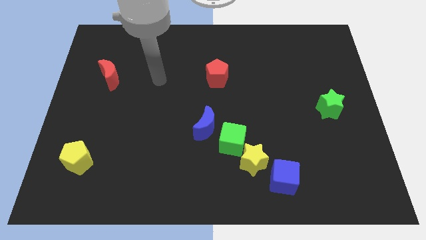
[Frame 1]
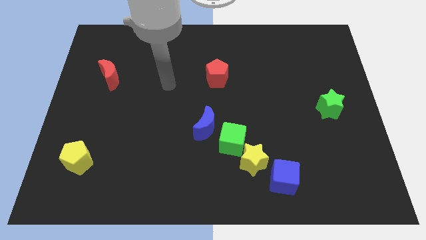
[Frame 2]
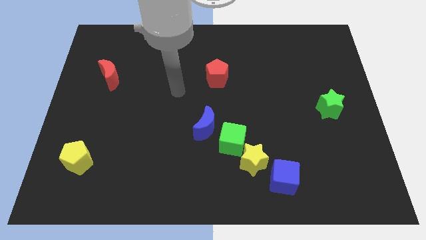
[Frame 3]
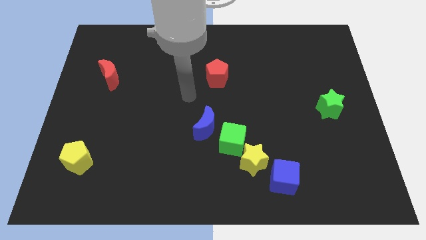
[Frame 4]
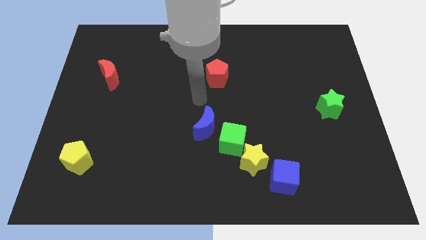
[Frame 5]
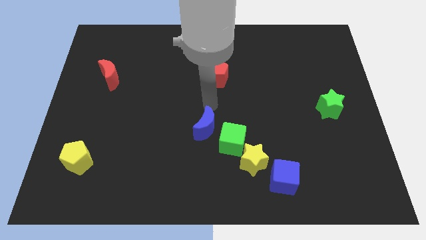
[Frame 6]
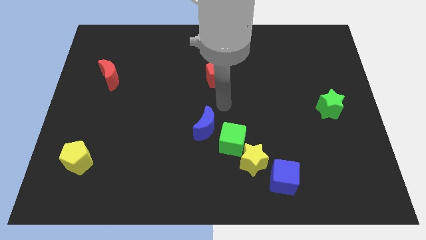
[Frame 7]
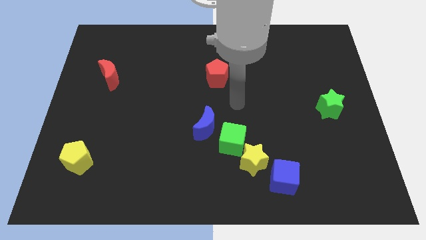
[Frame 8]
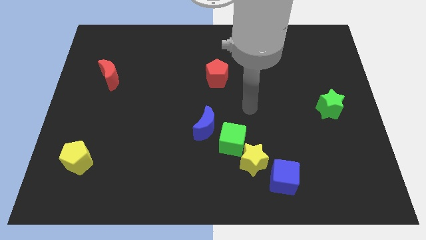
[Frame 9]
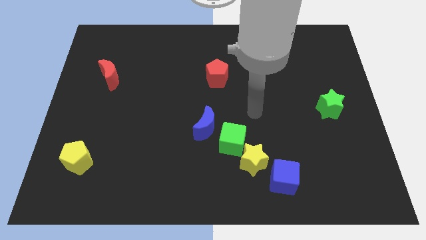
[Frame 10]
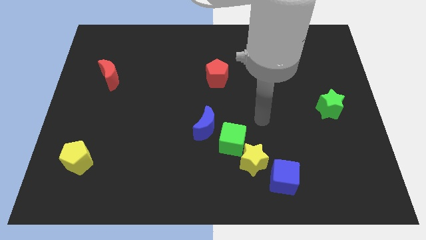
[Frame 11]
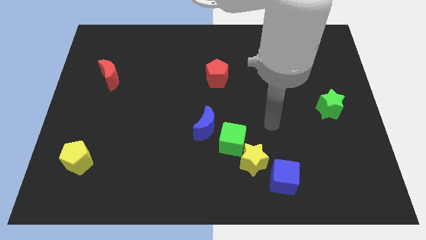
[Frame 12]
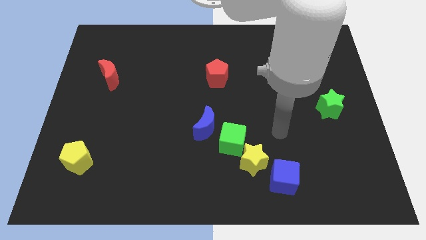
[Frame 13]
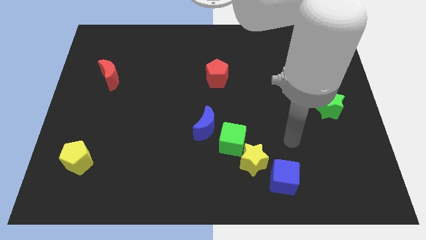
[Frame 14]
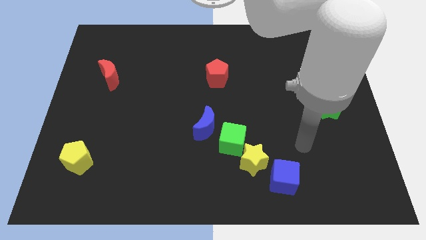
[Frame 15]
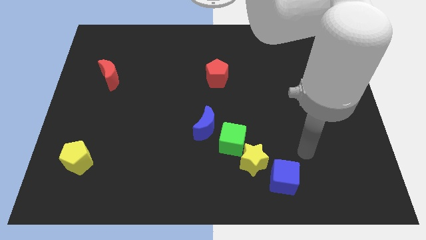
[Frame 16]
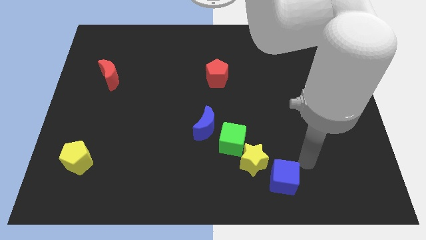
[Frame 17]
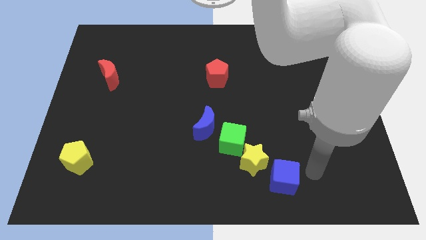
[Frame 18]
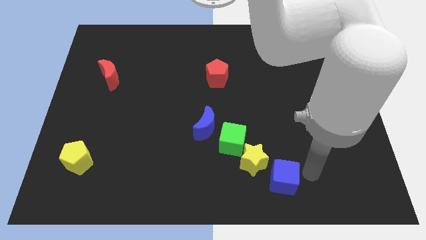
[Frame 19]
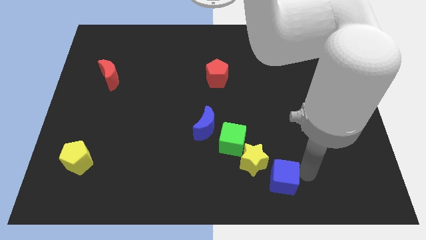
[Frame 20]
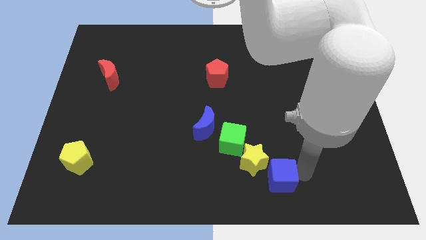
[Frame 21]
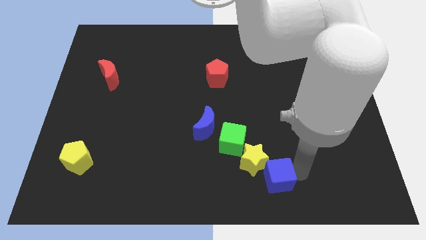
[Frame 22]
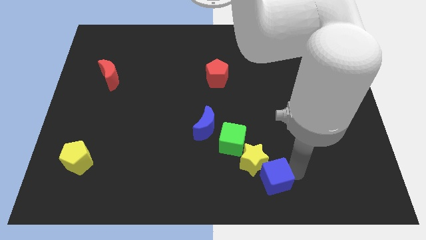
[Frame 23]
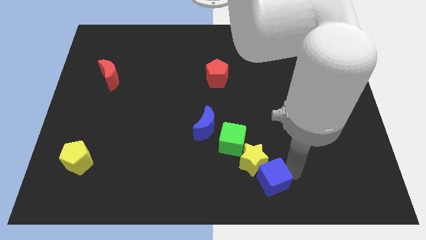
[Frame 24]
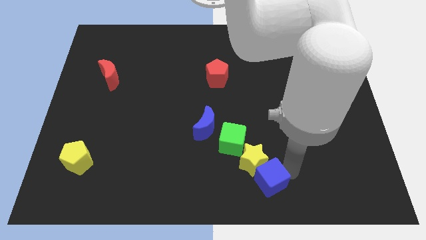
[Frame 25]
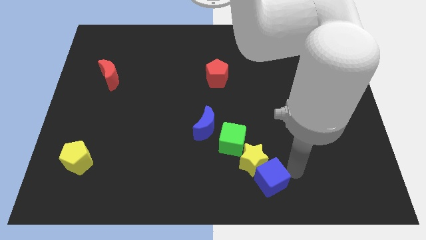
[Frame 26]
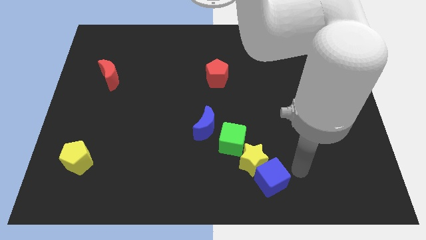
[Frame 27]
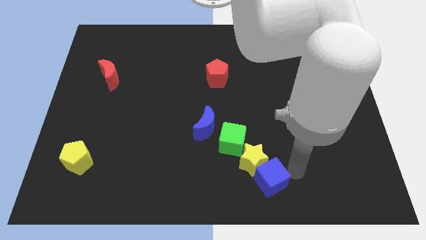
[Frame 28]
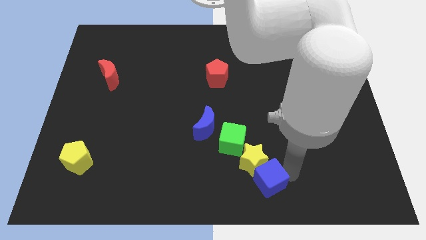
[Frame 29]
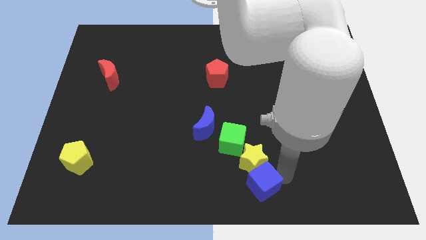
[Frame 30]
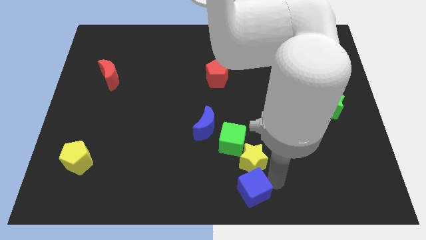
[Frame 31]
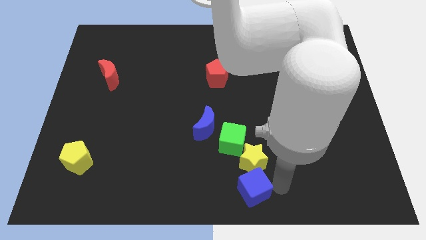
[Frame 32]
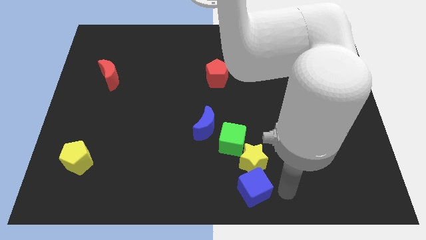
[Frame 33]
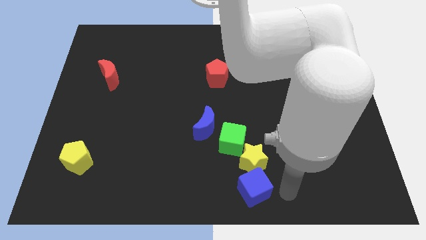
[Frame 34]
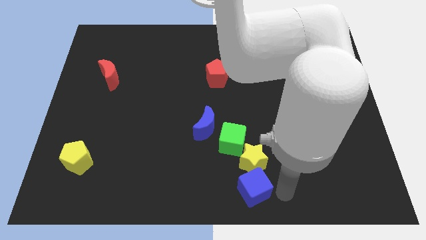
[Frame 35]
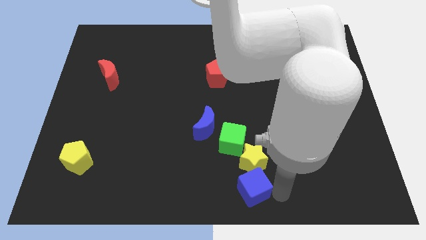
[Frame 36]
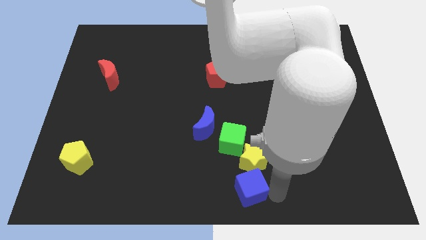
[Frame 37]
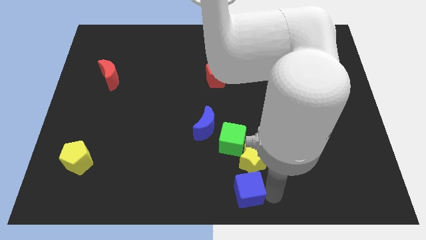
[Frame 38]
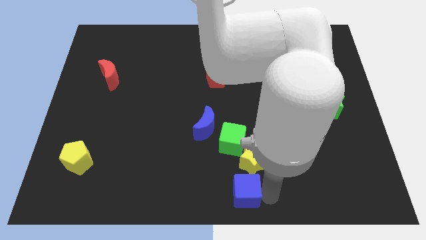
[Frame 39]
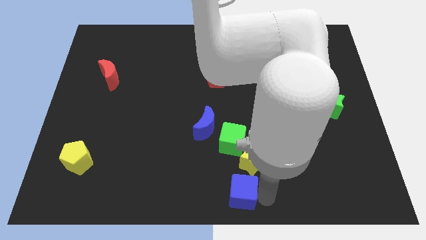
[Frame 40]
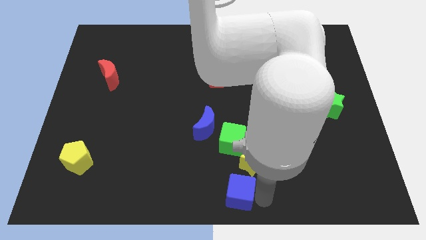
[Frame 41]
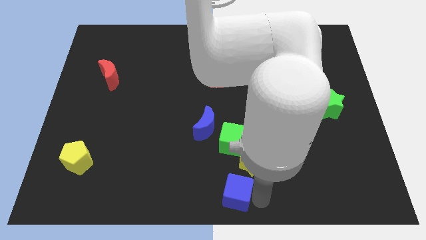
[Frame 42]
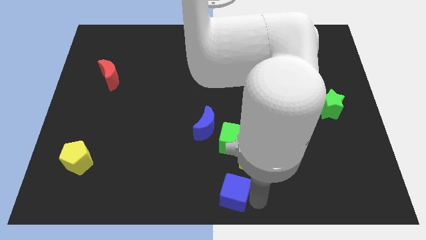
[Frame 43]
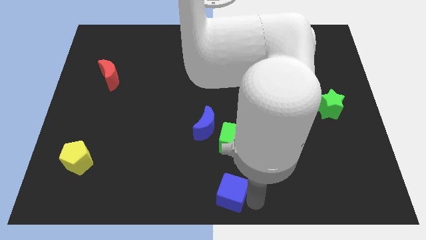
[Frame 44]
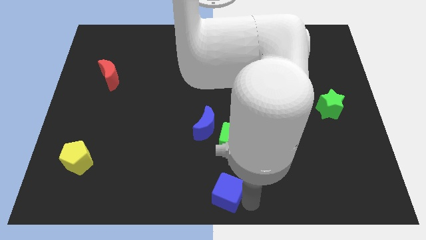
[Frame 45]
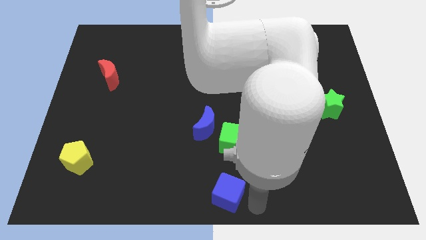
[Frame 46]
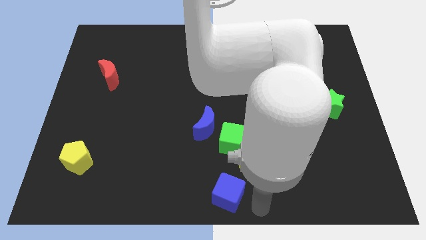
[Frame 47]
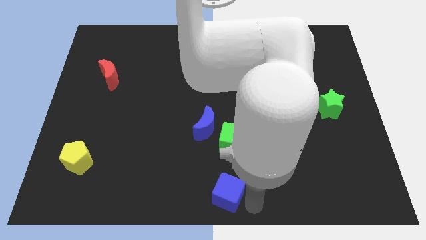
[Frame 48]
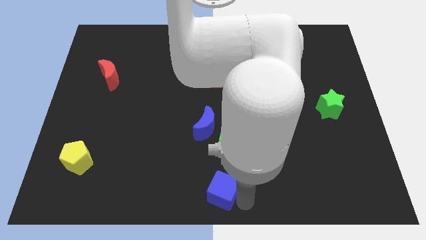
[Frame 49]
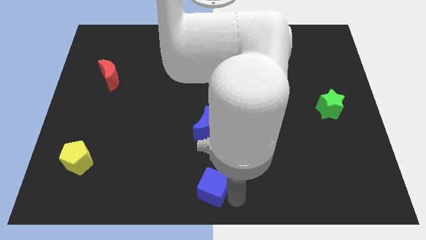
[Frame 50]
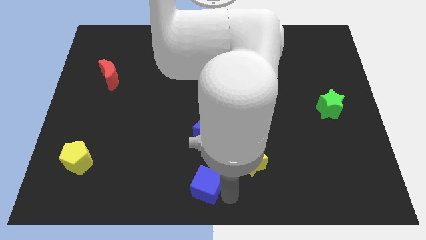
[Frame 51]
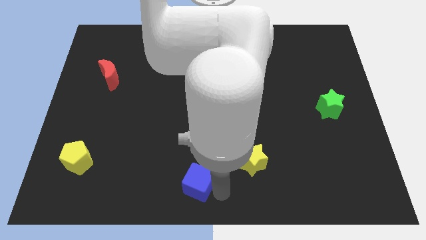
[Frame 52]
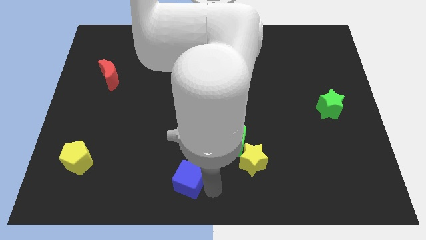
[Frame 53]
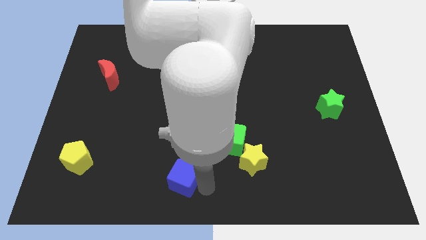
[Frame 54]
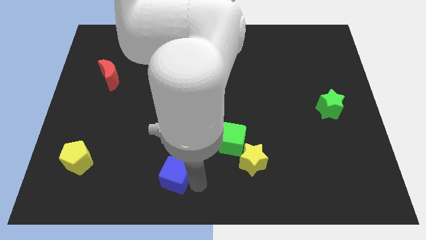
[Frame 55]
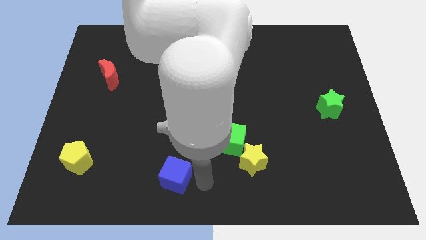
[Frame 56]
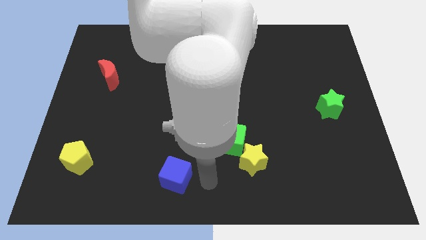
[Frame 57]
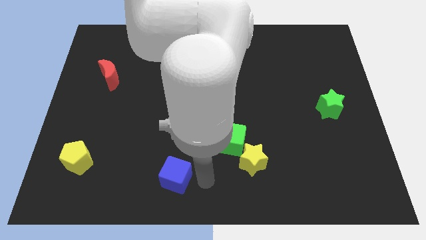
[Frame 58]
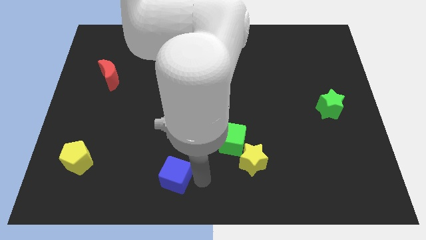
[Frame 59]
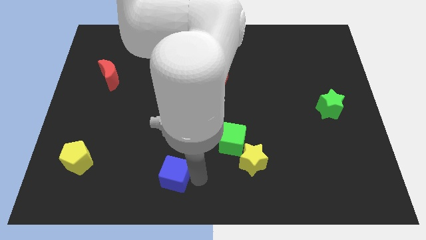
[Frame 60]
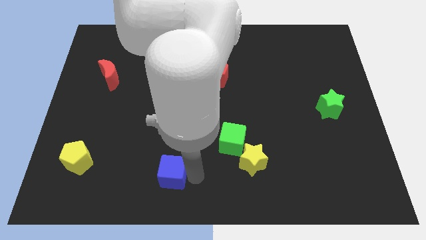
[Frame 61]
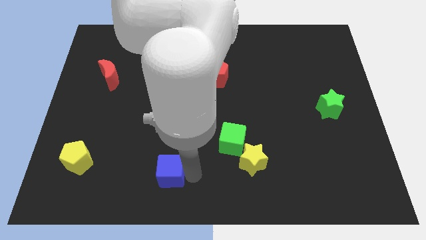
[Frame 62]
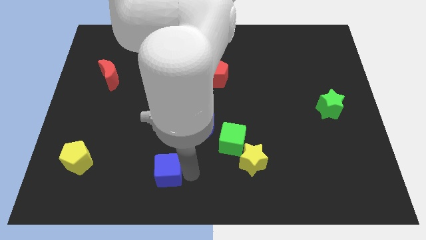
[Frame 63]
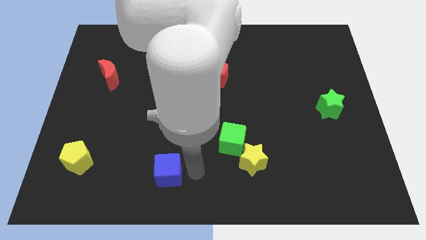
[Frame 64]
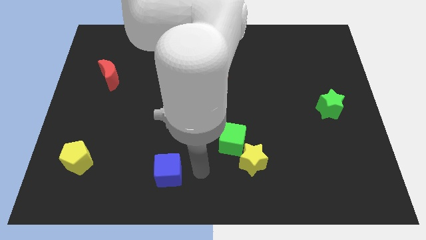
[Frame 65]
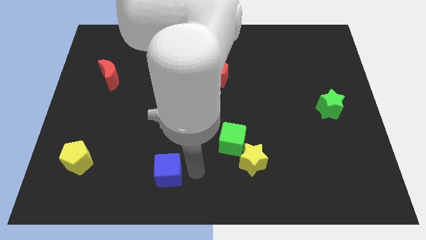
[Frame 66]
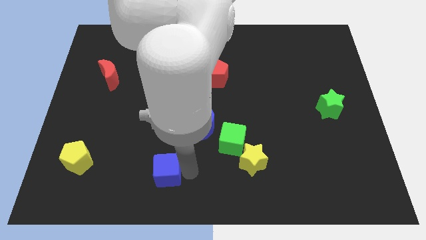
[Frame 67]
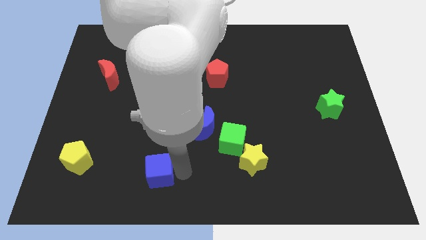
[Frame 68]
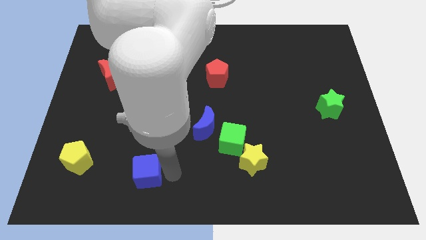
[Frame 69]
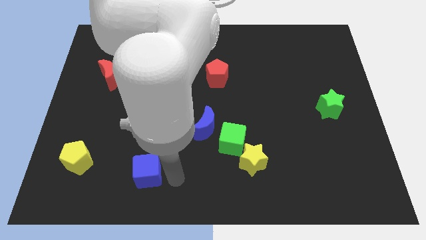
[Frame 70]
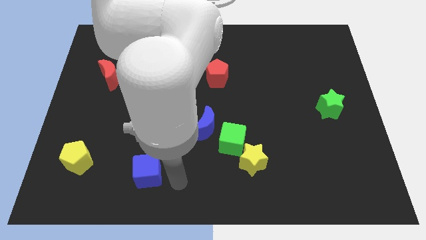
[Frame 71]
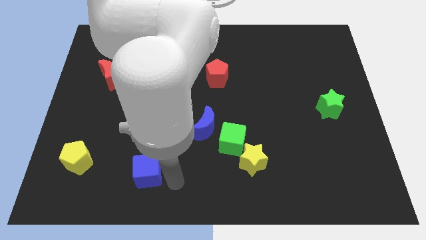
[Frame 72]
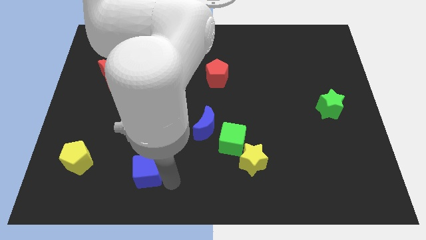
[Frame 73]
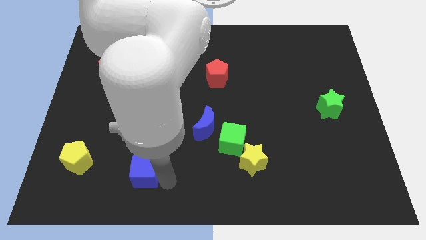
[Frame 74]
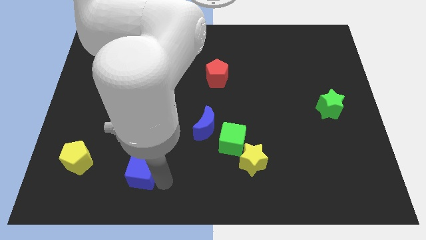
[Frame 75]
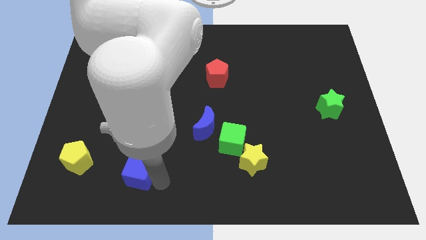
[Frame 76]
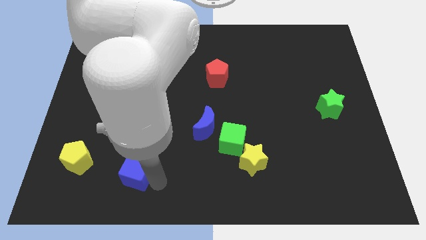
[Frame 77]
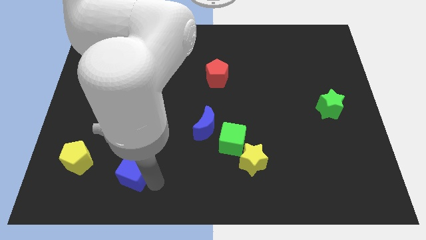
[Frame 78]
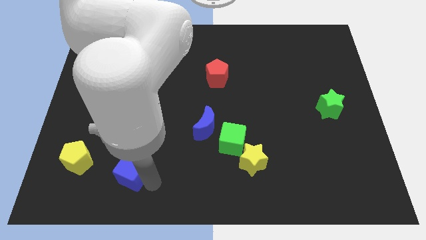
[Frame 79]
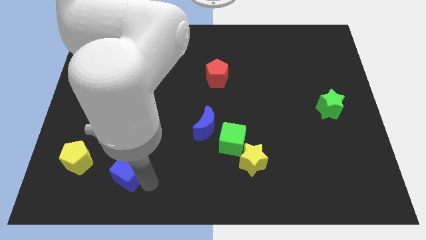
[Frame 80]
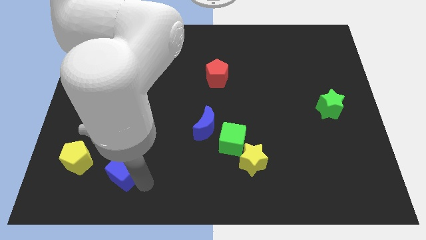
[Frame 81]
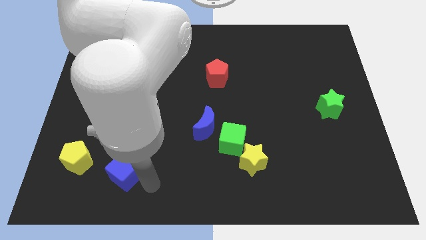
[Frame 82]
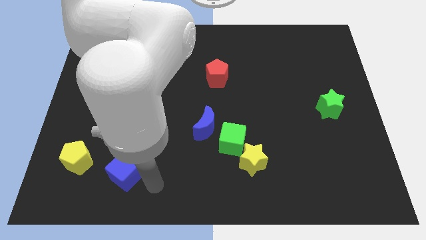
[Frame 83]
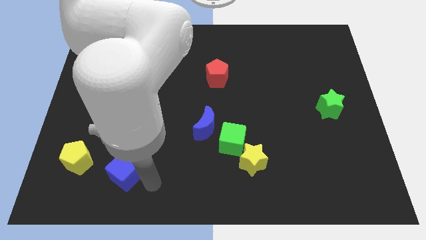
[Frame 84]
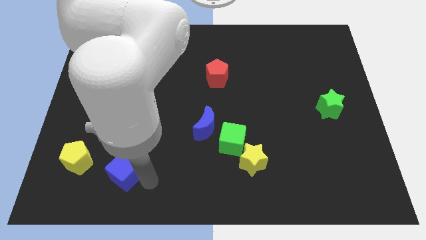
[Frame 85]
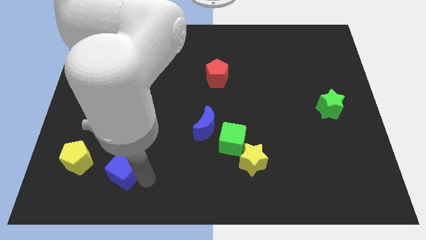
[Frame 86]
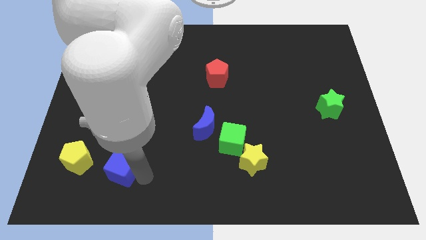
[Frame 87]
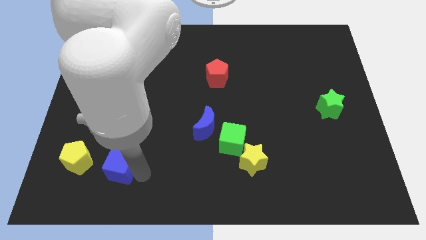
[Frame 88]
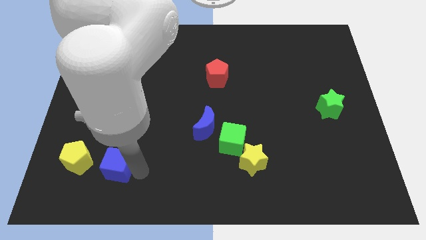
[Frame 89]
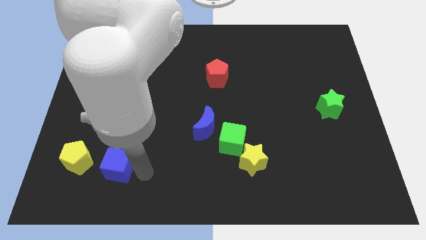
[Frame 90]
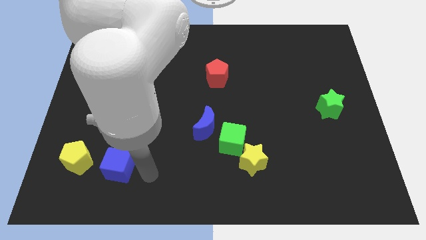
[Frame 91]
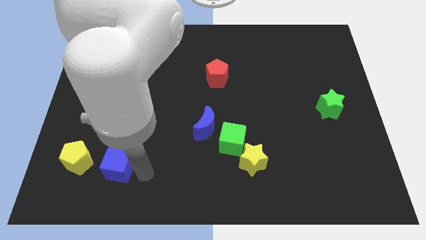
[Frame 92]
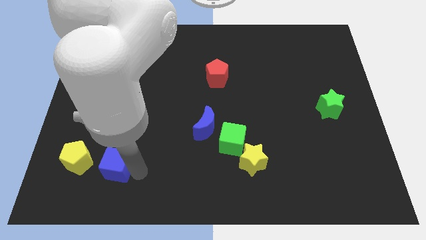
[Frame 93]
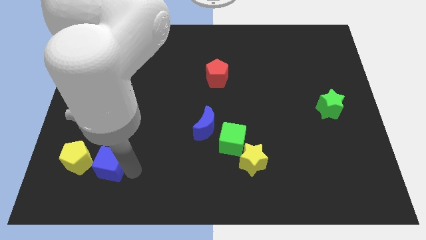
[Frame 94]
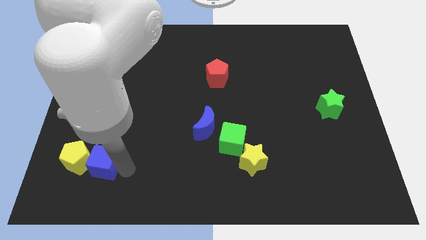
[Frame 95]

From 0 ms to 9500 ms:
slide the blue cube to the yellow pentagon
